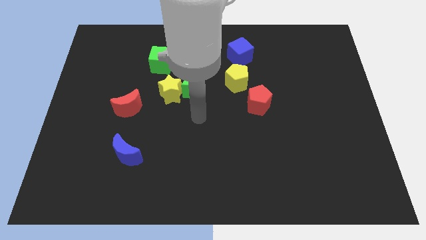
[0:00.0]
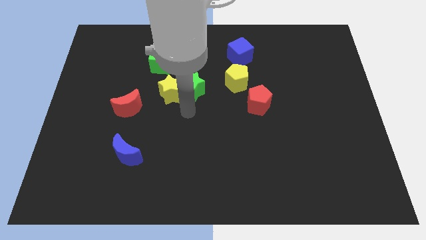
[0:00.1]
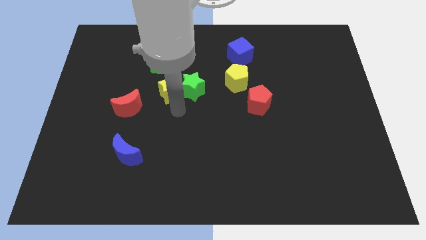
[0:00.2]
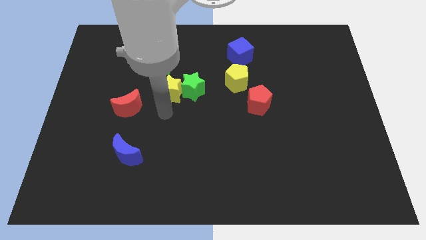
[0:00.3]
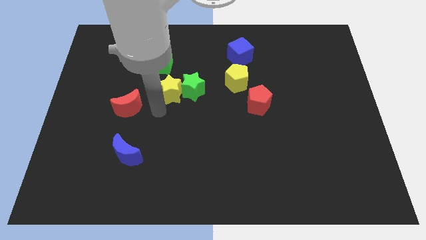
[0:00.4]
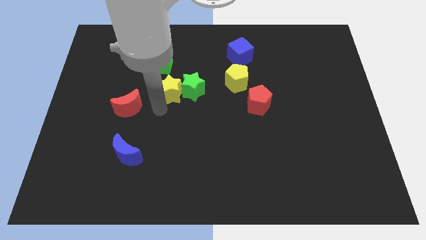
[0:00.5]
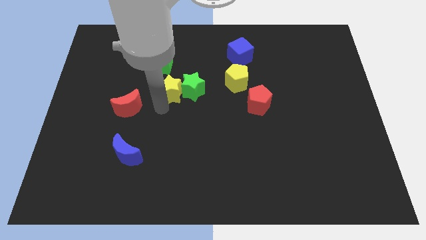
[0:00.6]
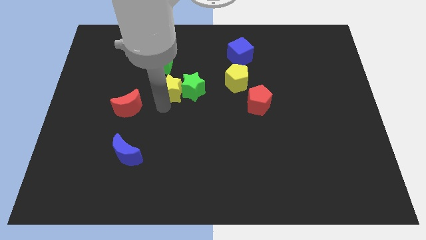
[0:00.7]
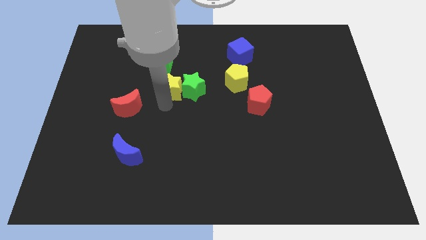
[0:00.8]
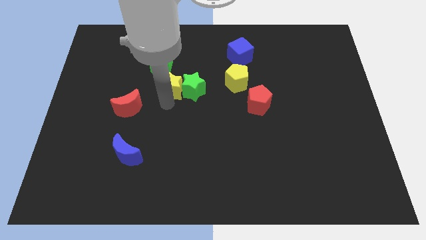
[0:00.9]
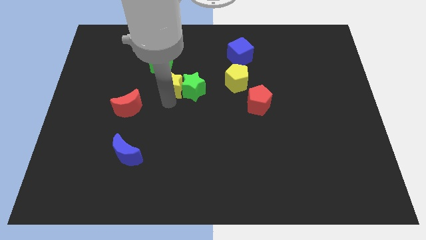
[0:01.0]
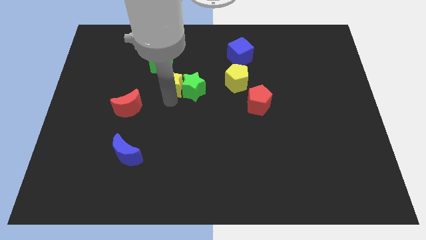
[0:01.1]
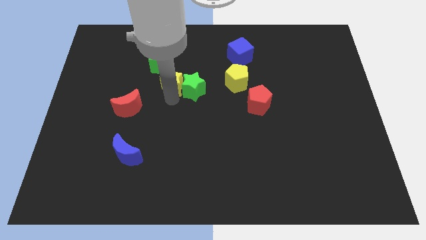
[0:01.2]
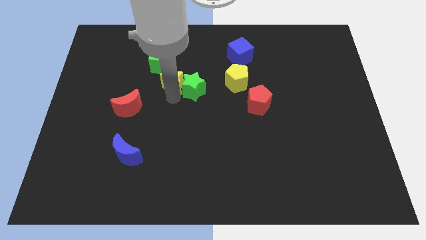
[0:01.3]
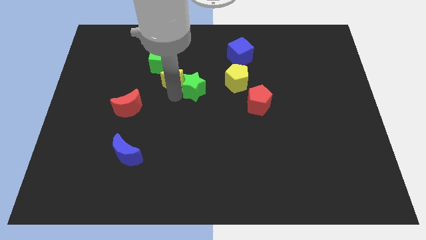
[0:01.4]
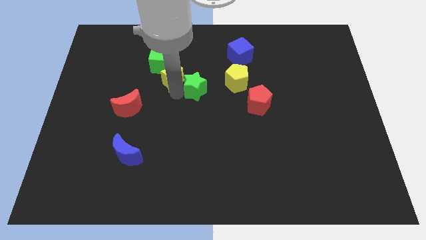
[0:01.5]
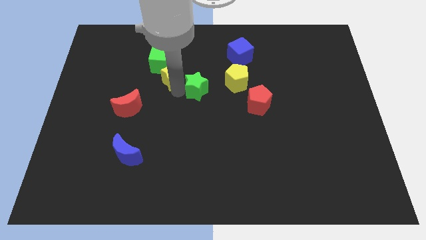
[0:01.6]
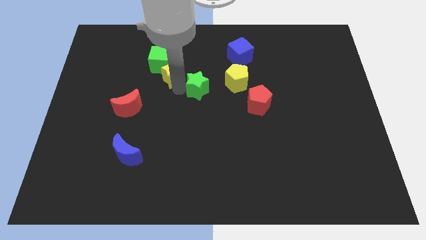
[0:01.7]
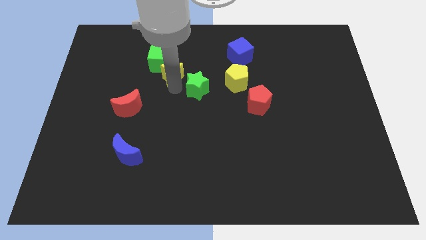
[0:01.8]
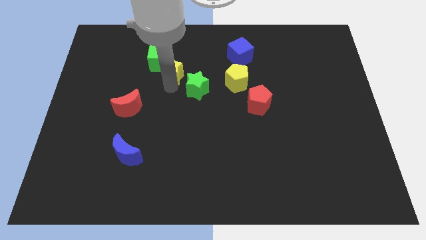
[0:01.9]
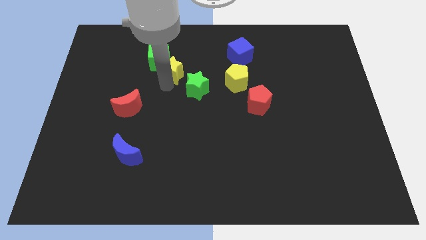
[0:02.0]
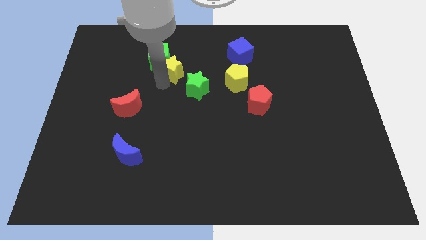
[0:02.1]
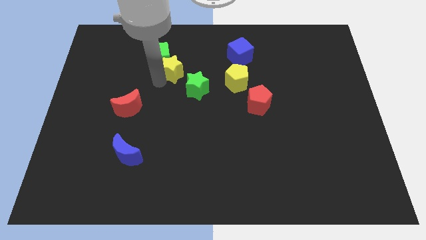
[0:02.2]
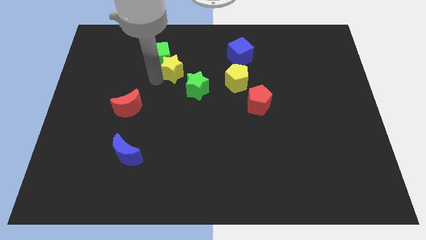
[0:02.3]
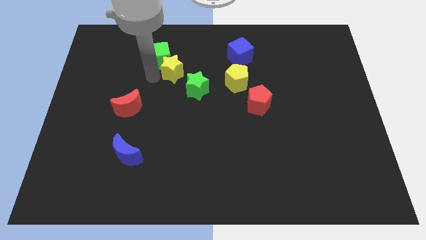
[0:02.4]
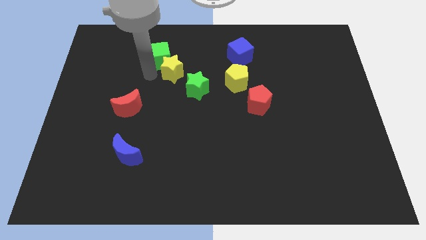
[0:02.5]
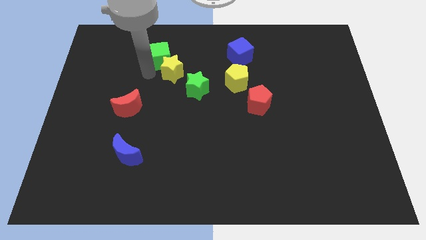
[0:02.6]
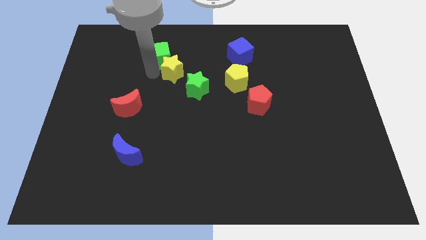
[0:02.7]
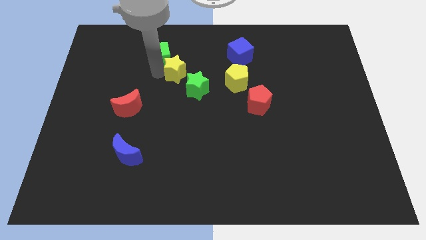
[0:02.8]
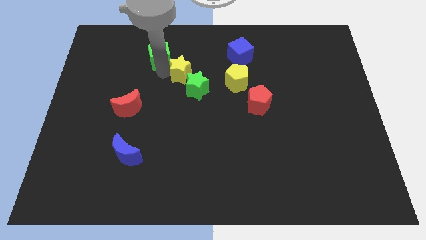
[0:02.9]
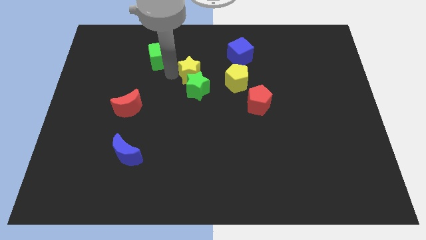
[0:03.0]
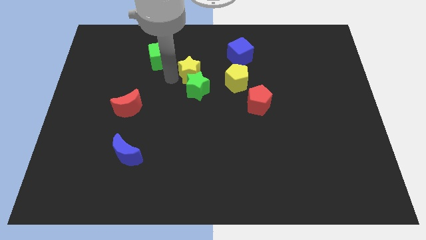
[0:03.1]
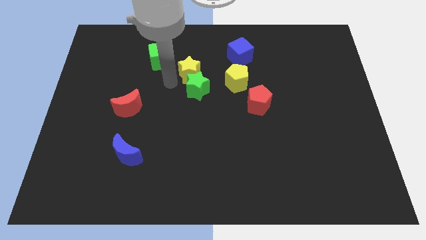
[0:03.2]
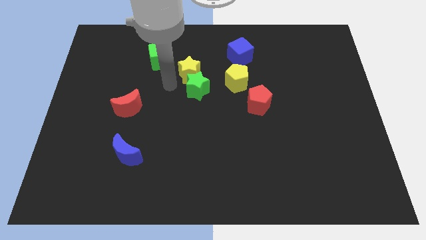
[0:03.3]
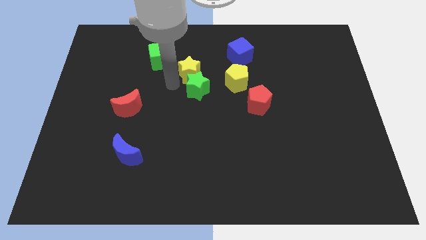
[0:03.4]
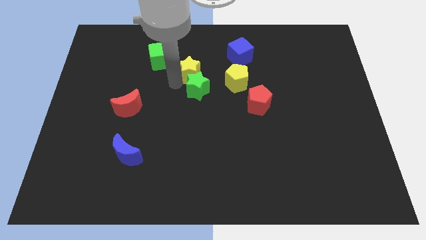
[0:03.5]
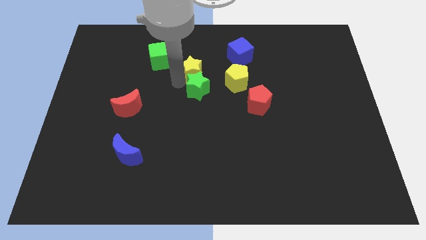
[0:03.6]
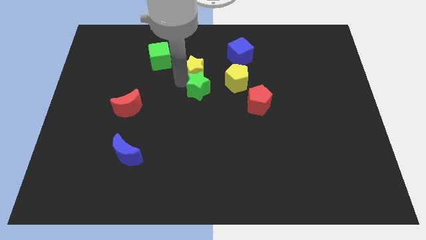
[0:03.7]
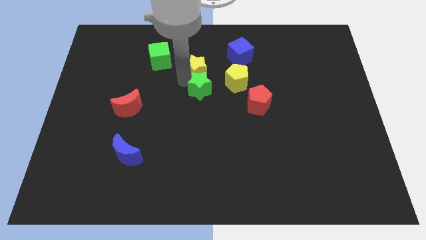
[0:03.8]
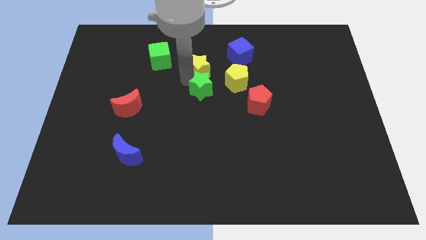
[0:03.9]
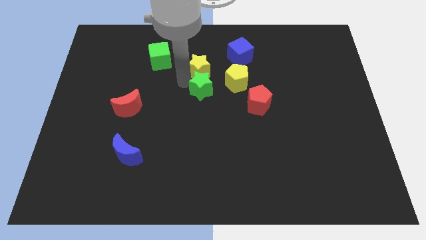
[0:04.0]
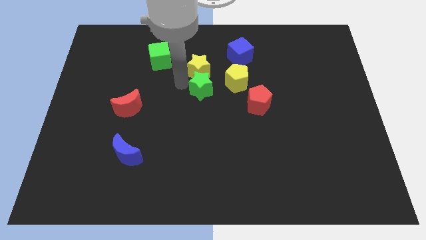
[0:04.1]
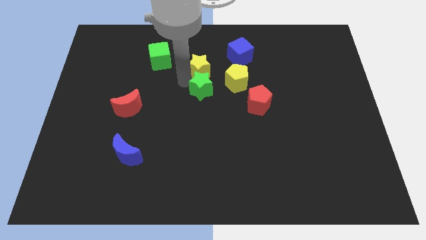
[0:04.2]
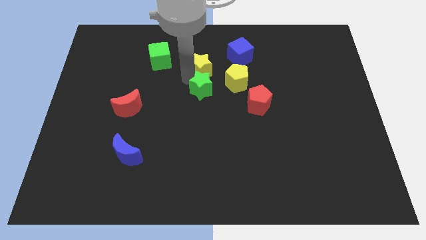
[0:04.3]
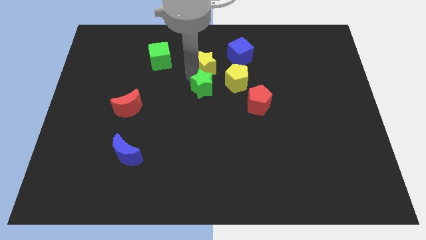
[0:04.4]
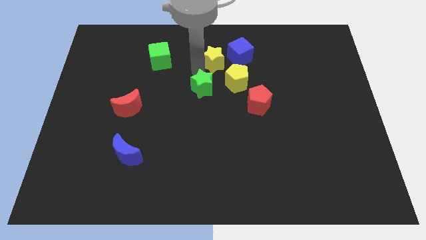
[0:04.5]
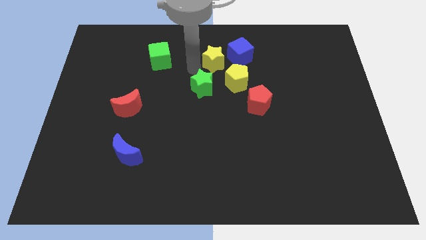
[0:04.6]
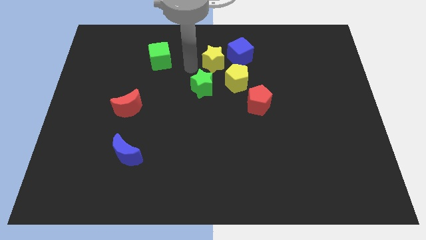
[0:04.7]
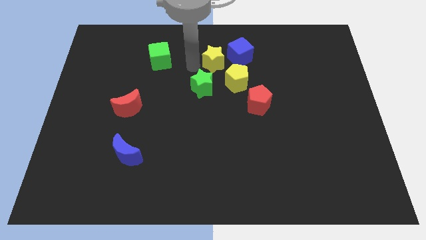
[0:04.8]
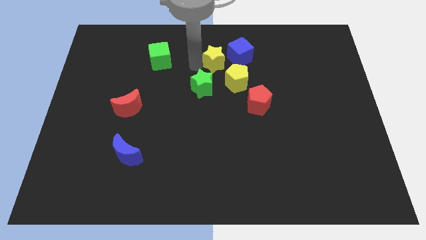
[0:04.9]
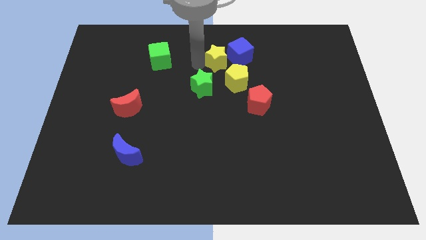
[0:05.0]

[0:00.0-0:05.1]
move the yellow star next to the blue cube

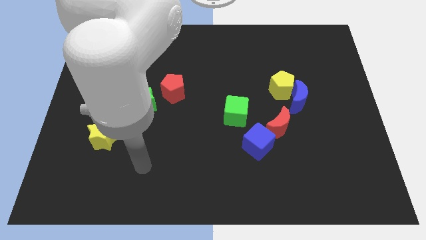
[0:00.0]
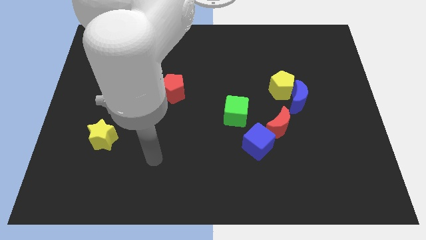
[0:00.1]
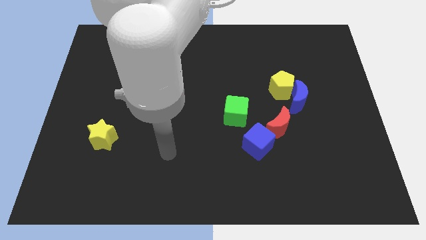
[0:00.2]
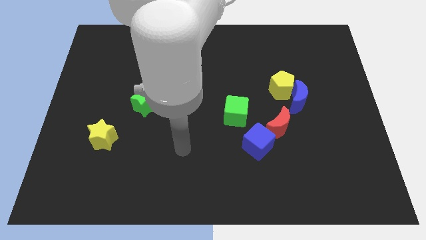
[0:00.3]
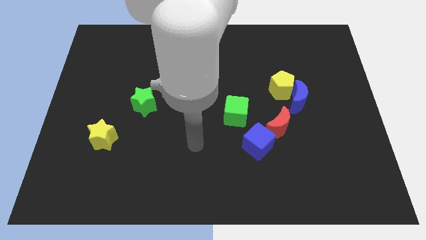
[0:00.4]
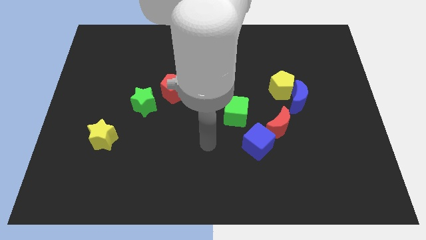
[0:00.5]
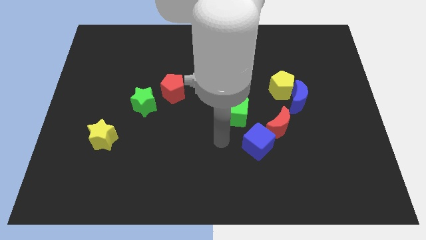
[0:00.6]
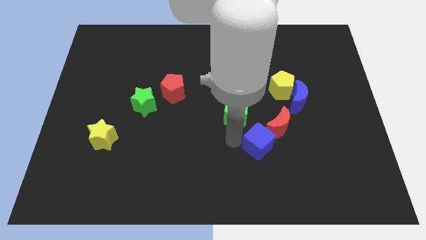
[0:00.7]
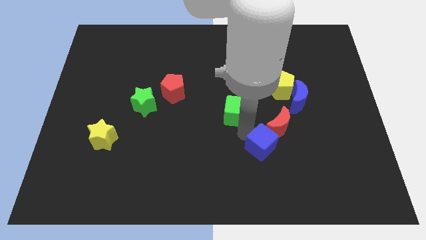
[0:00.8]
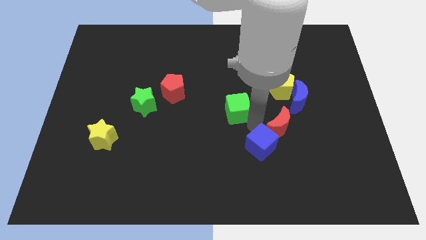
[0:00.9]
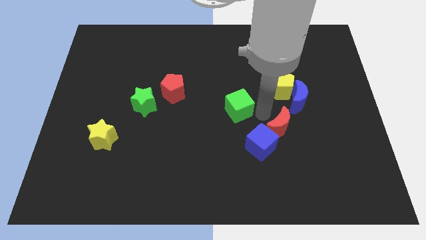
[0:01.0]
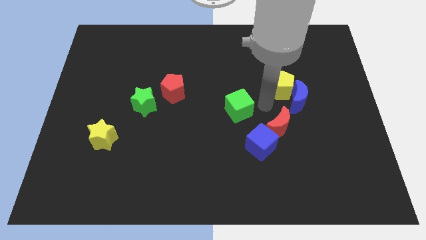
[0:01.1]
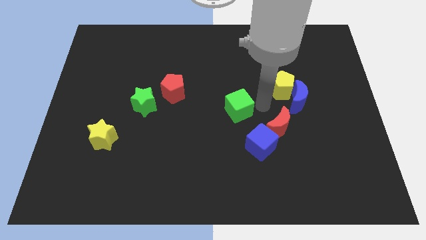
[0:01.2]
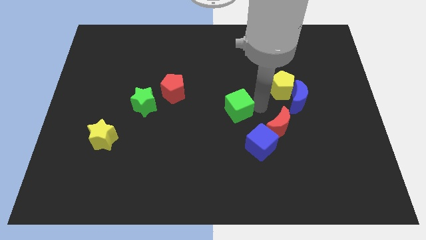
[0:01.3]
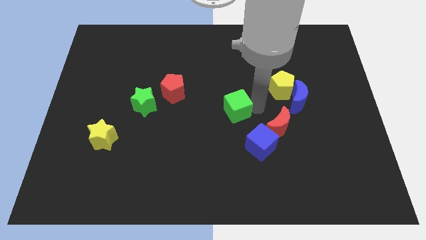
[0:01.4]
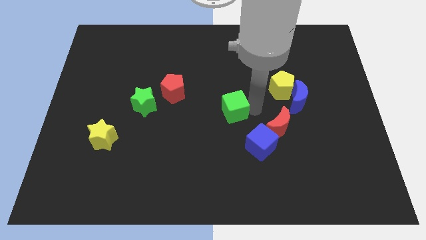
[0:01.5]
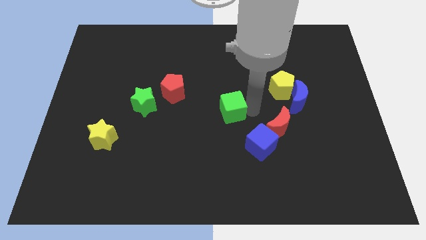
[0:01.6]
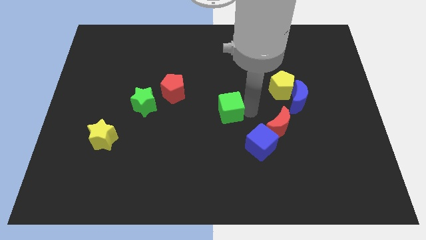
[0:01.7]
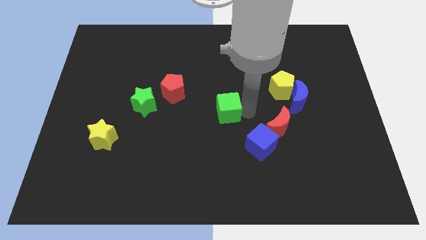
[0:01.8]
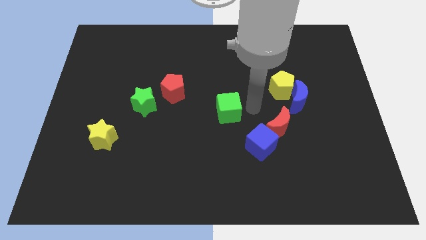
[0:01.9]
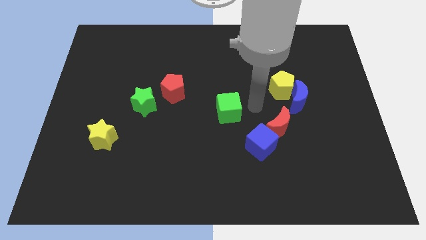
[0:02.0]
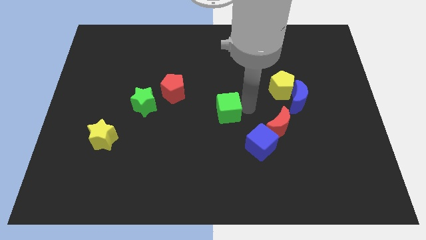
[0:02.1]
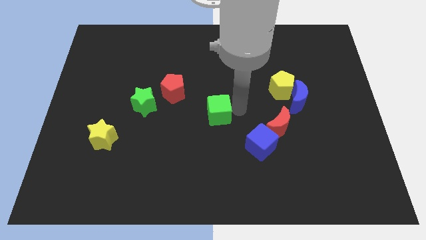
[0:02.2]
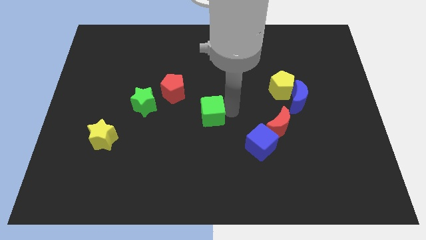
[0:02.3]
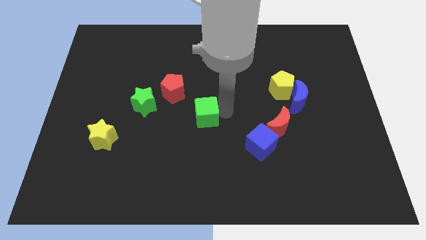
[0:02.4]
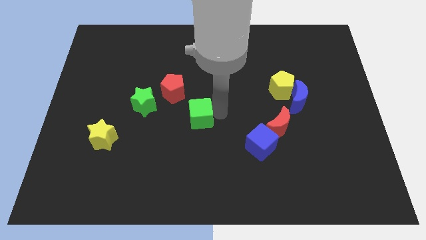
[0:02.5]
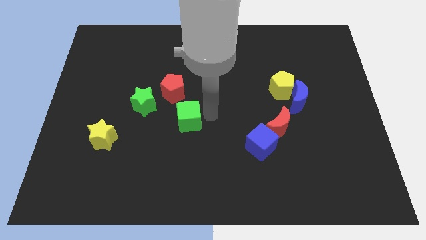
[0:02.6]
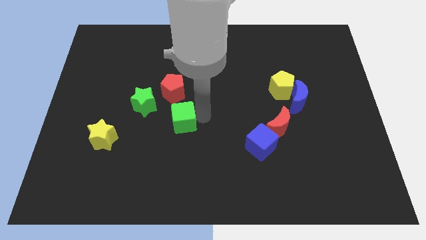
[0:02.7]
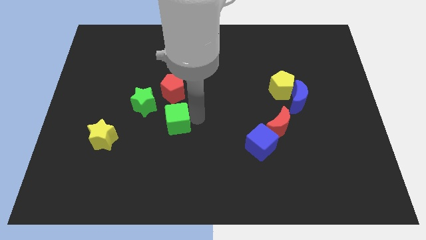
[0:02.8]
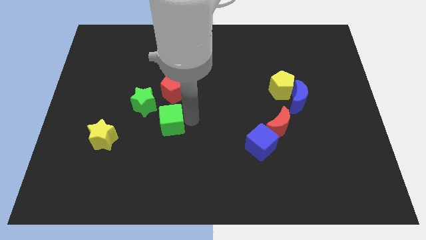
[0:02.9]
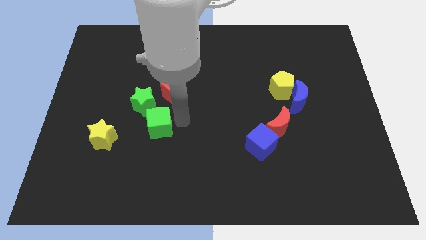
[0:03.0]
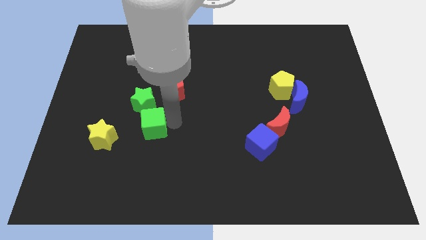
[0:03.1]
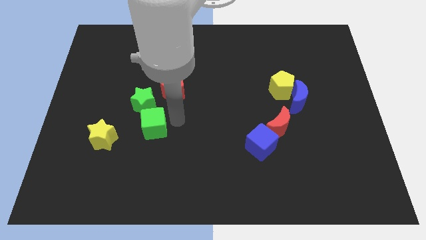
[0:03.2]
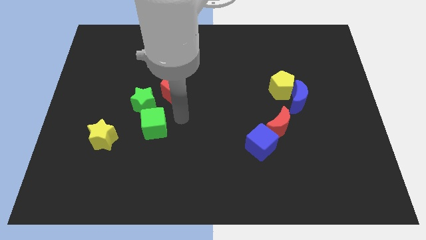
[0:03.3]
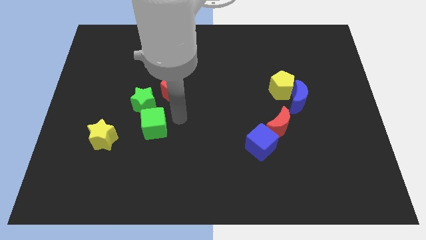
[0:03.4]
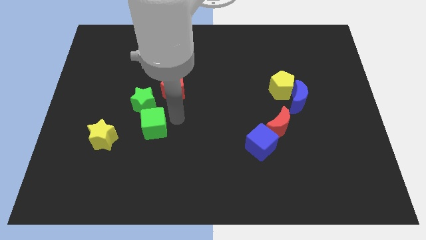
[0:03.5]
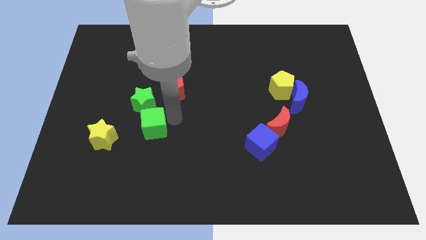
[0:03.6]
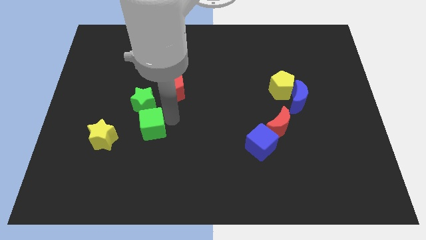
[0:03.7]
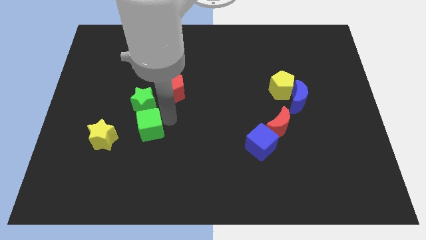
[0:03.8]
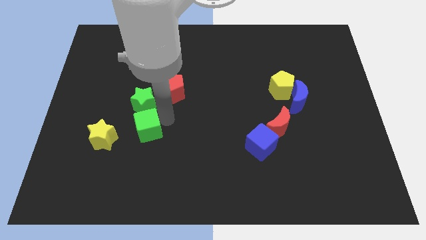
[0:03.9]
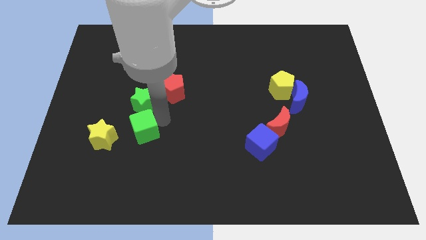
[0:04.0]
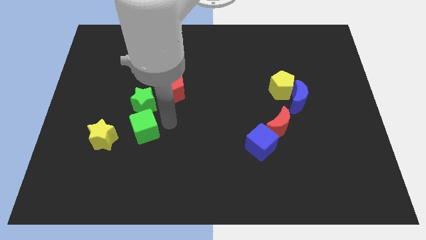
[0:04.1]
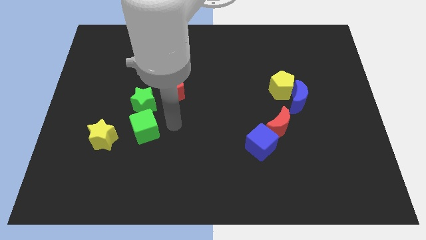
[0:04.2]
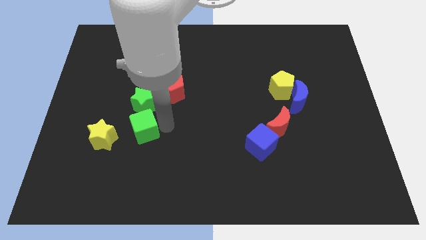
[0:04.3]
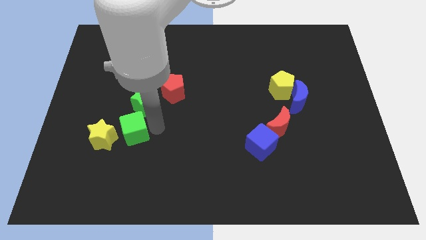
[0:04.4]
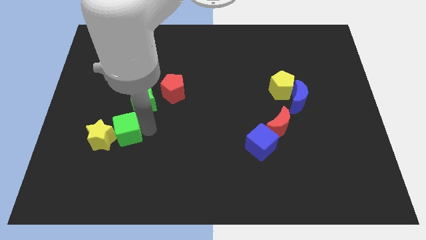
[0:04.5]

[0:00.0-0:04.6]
slide the green cube close to the yellow star
